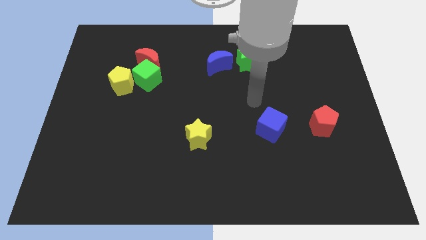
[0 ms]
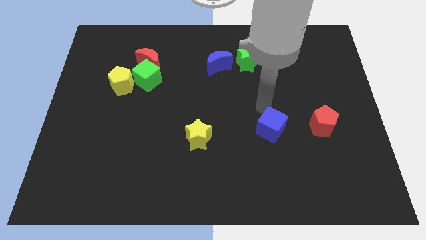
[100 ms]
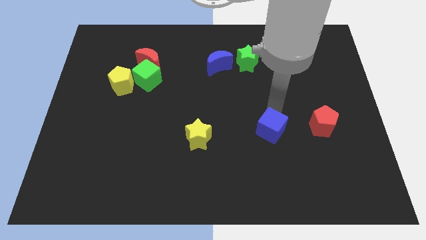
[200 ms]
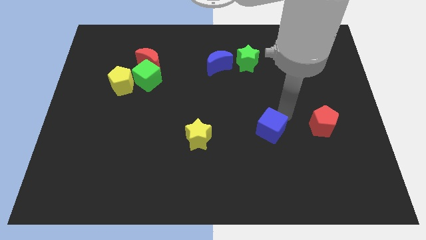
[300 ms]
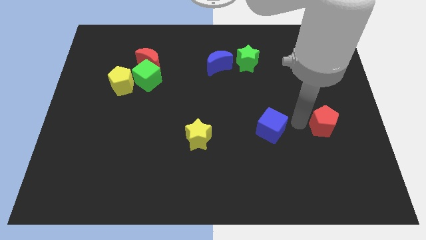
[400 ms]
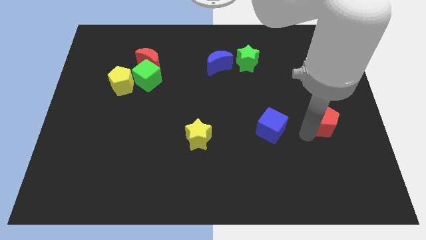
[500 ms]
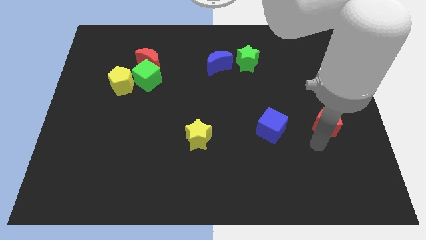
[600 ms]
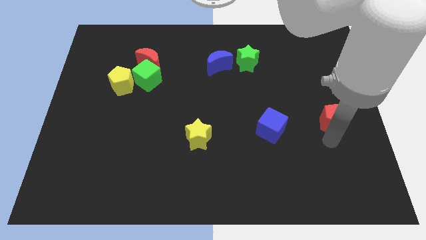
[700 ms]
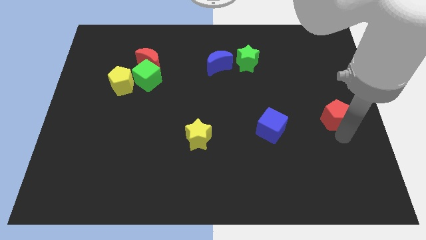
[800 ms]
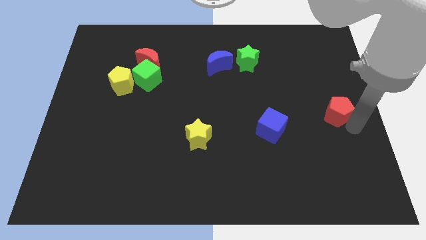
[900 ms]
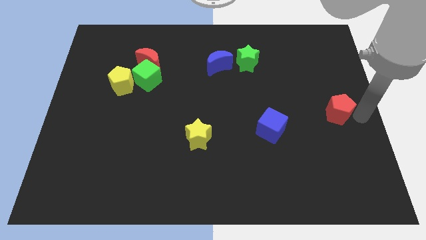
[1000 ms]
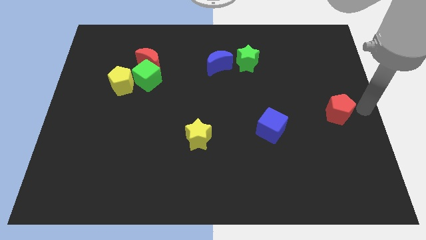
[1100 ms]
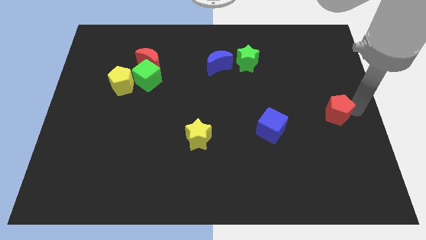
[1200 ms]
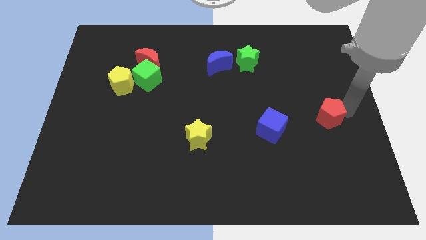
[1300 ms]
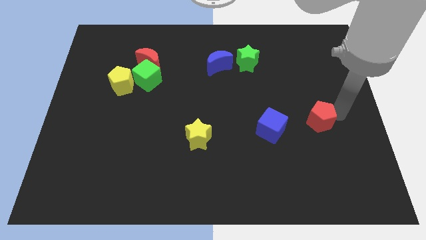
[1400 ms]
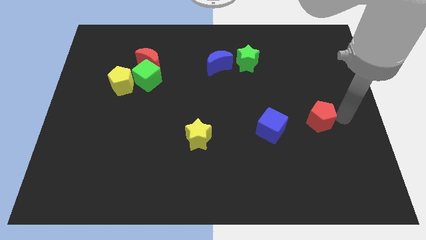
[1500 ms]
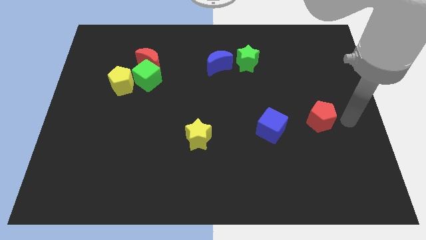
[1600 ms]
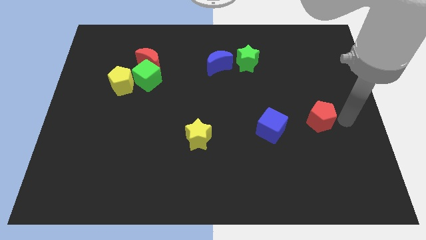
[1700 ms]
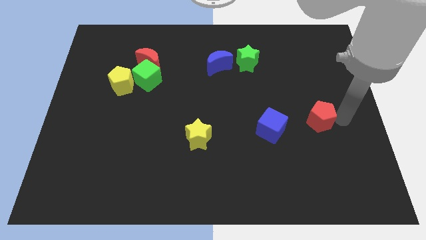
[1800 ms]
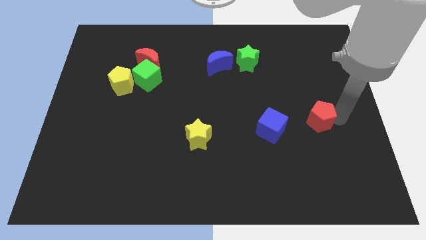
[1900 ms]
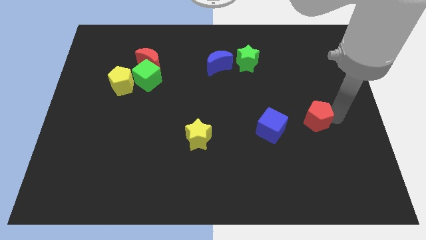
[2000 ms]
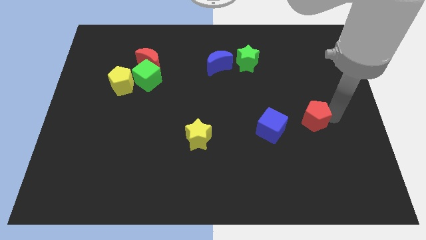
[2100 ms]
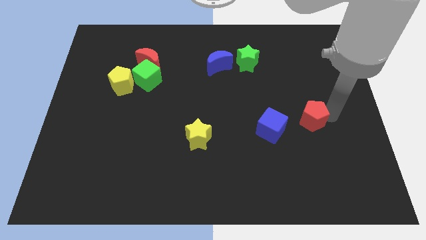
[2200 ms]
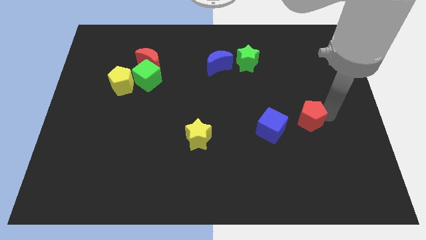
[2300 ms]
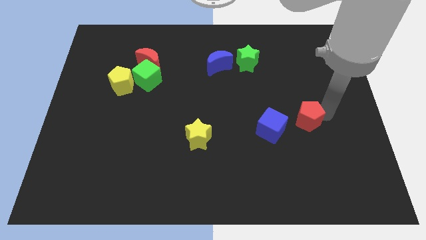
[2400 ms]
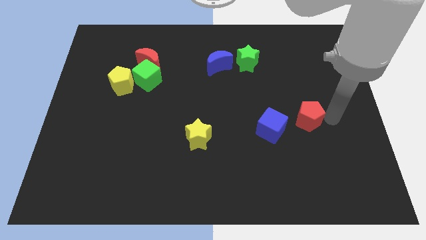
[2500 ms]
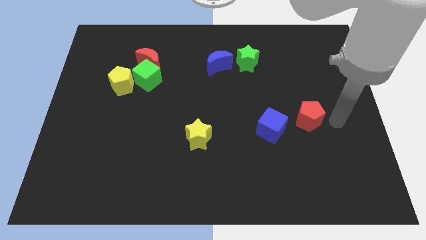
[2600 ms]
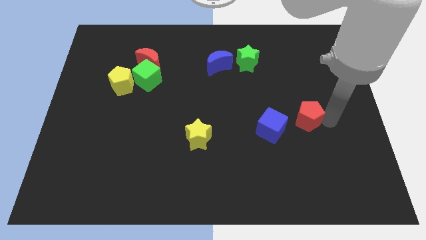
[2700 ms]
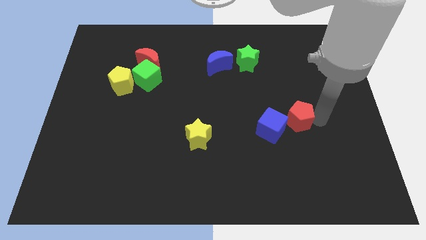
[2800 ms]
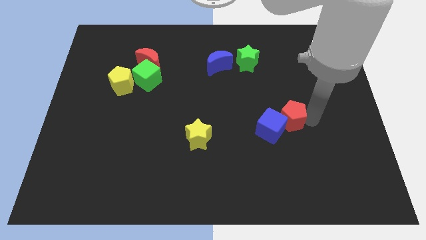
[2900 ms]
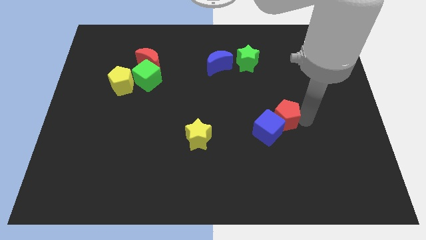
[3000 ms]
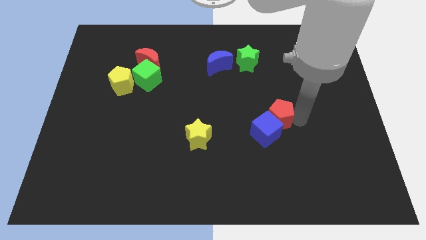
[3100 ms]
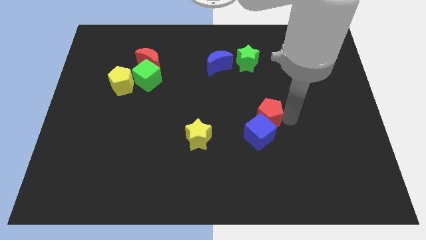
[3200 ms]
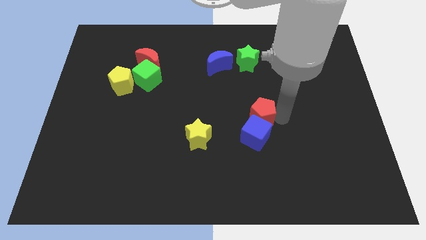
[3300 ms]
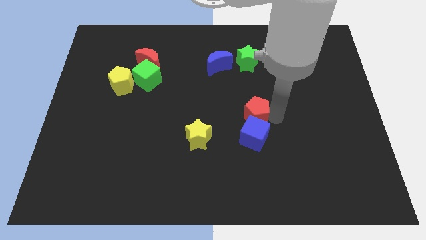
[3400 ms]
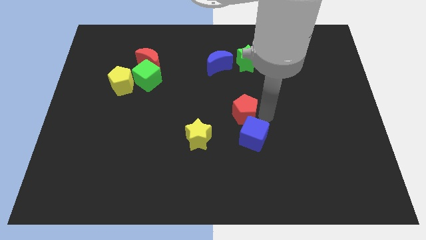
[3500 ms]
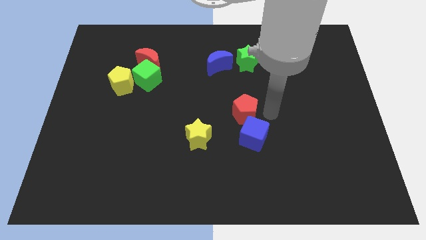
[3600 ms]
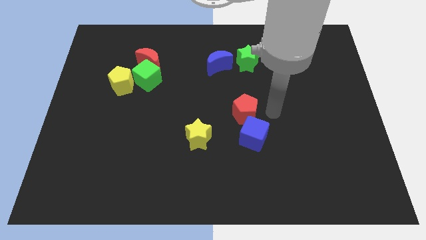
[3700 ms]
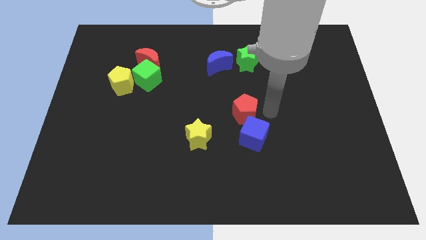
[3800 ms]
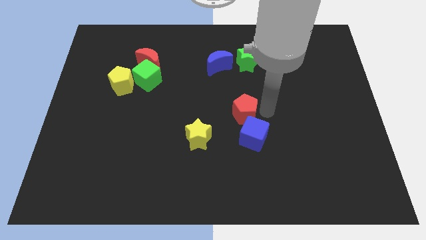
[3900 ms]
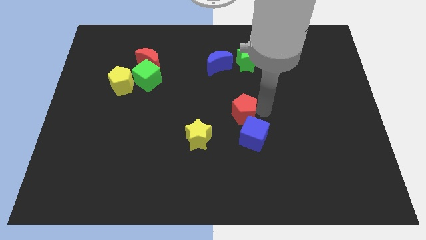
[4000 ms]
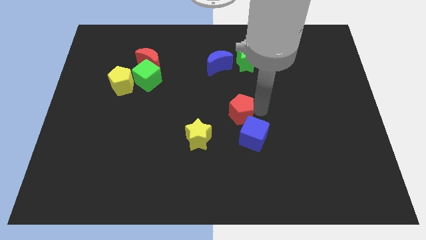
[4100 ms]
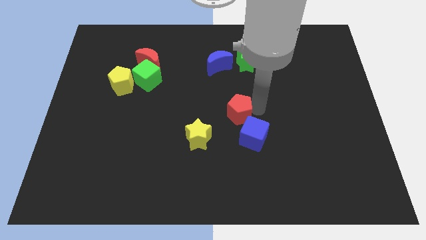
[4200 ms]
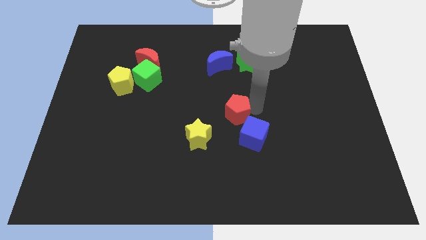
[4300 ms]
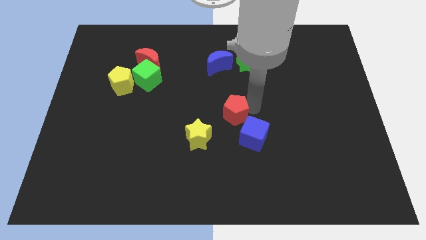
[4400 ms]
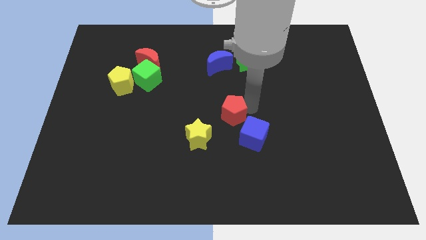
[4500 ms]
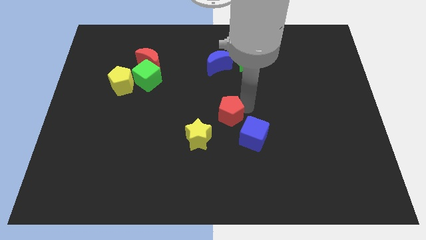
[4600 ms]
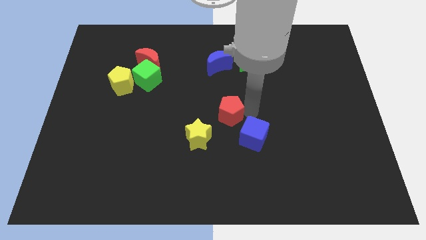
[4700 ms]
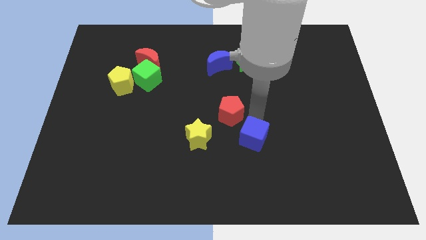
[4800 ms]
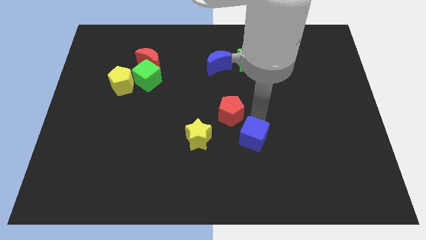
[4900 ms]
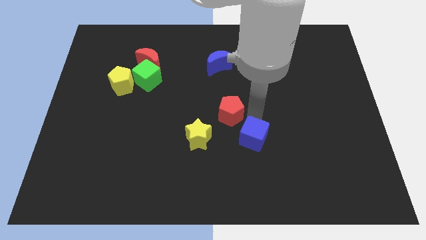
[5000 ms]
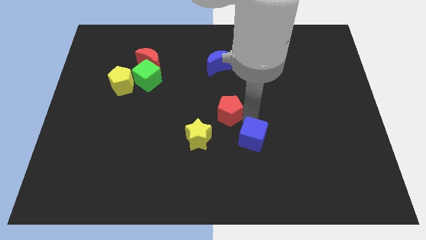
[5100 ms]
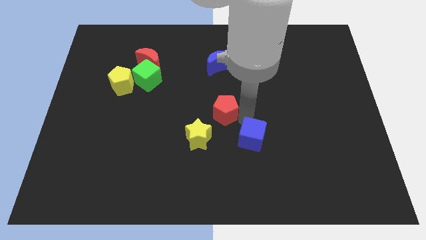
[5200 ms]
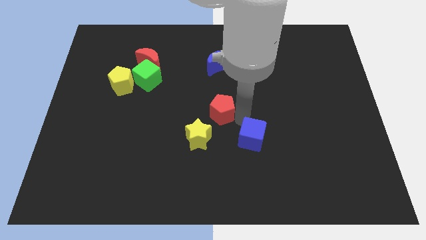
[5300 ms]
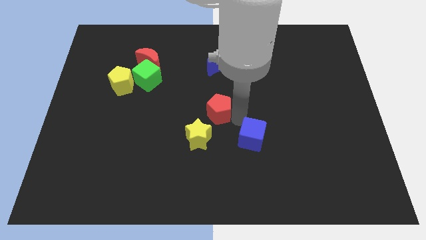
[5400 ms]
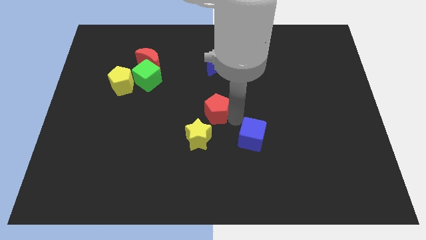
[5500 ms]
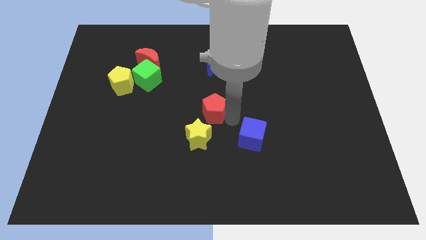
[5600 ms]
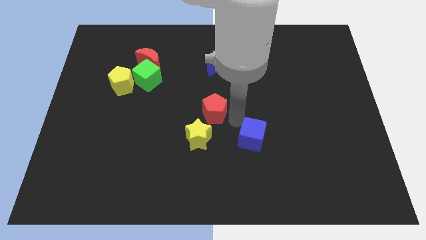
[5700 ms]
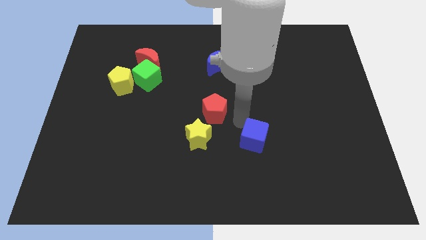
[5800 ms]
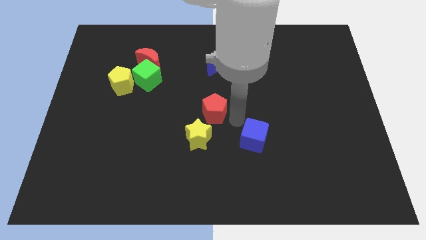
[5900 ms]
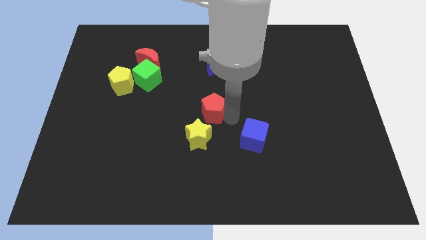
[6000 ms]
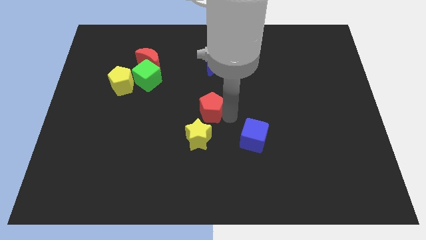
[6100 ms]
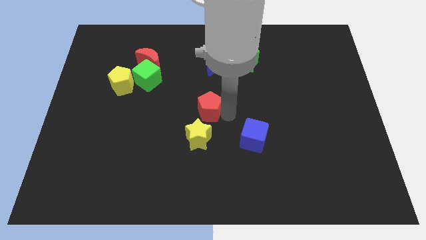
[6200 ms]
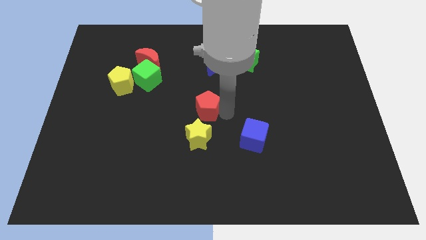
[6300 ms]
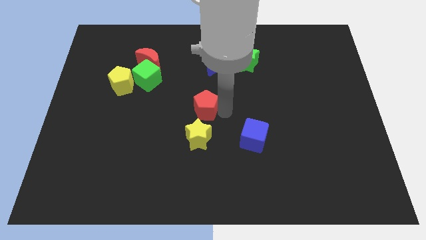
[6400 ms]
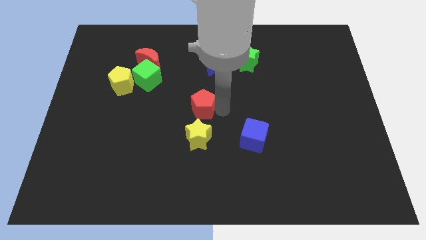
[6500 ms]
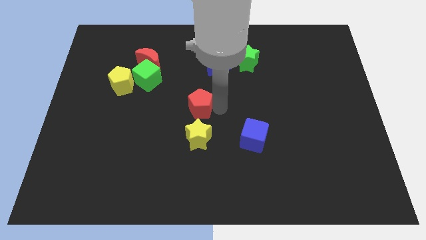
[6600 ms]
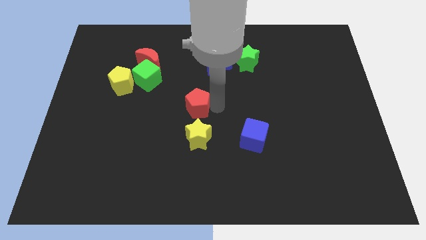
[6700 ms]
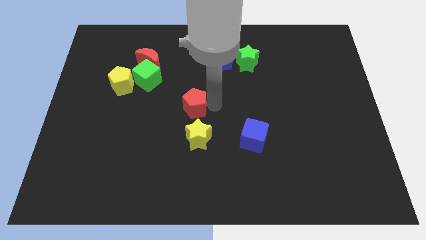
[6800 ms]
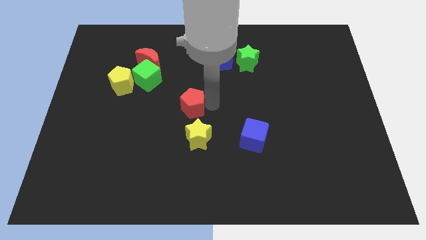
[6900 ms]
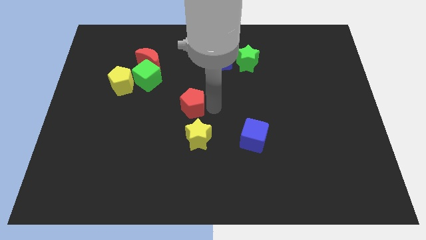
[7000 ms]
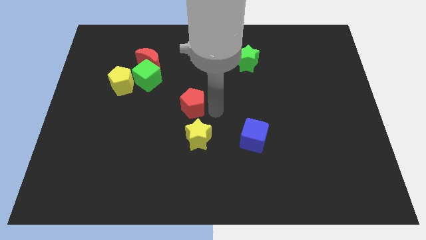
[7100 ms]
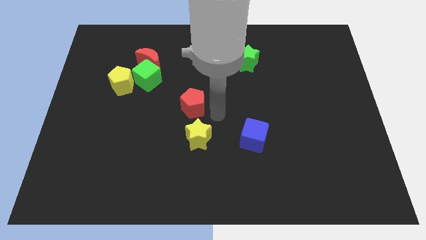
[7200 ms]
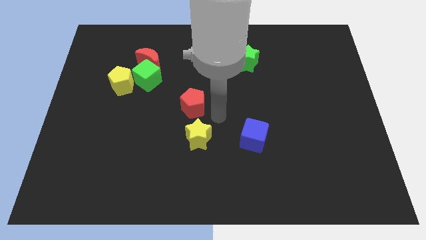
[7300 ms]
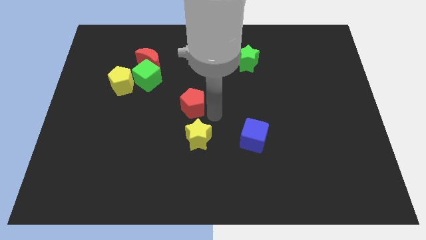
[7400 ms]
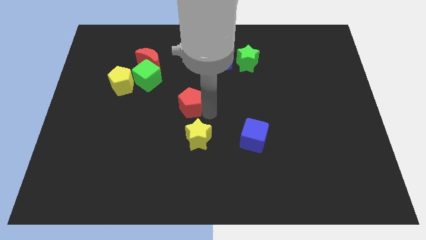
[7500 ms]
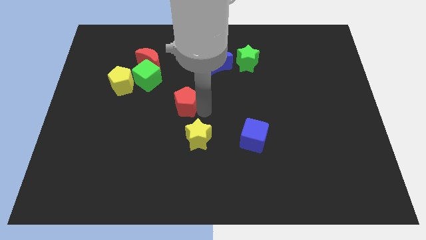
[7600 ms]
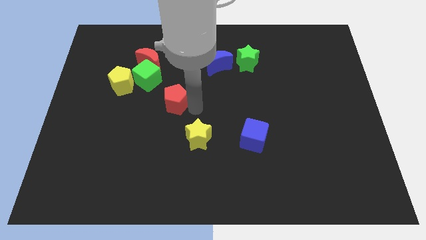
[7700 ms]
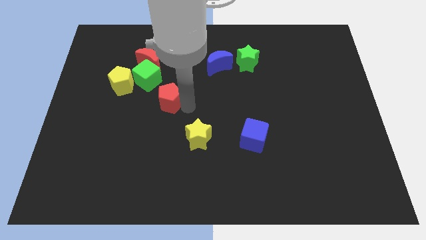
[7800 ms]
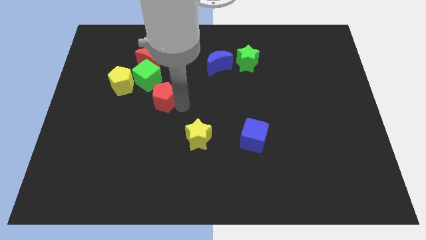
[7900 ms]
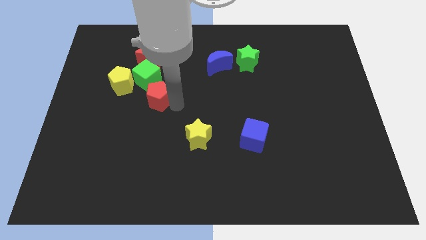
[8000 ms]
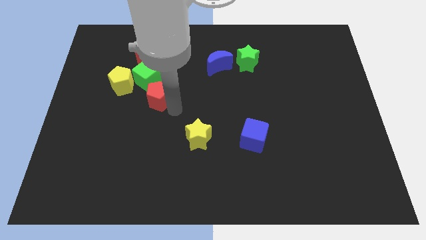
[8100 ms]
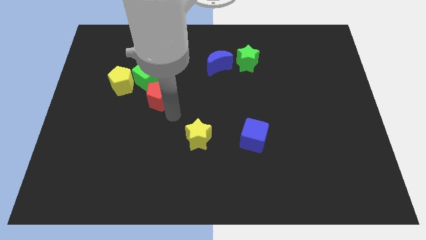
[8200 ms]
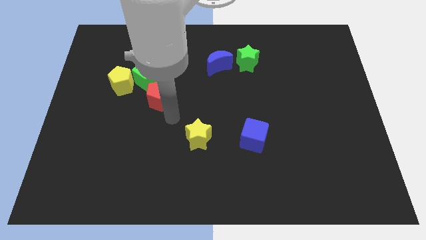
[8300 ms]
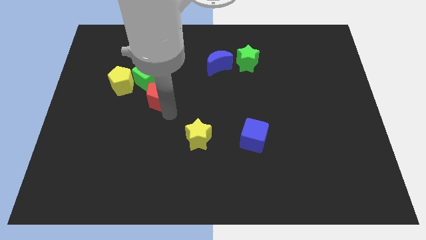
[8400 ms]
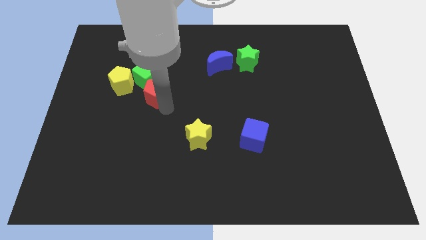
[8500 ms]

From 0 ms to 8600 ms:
move the red pentagon close to the green cube
